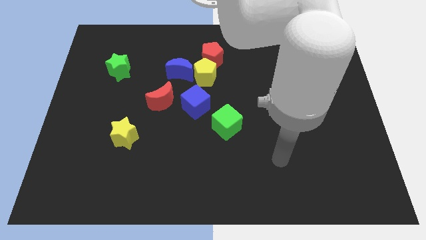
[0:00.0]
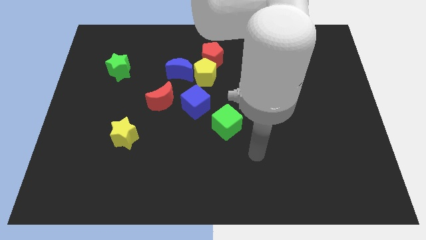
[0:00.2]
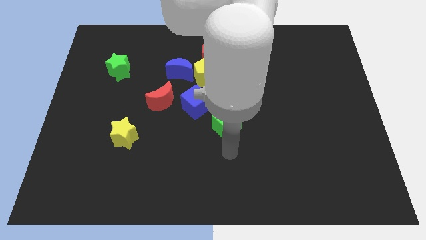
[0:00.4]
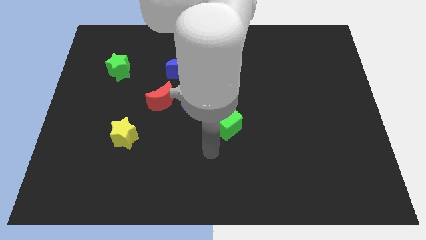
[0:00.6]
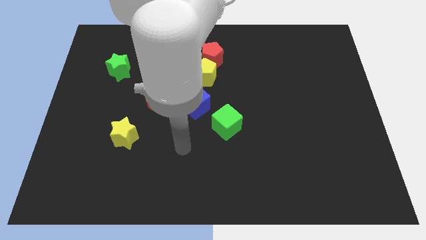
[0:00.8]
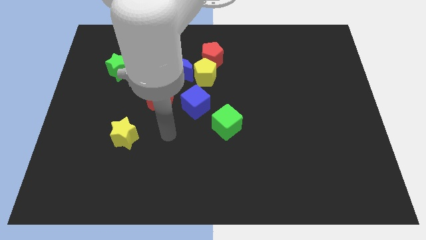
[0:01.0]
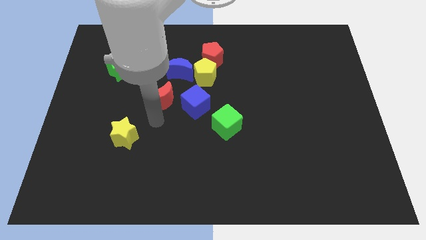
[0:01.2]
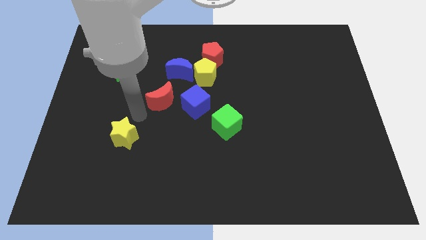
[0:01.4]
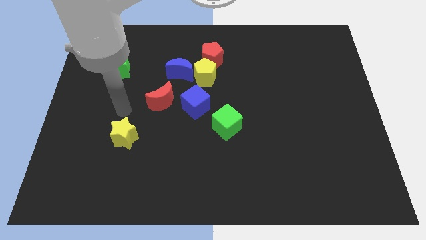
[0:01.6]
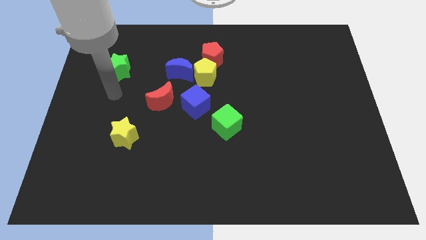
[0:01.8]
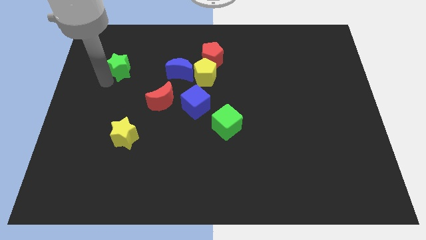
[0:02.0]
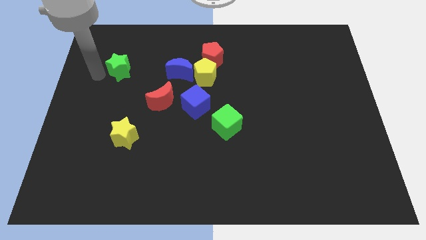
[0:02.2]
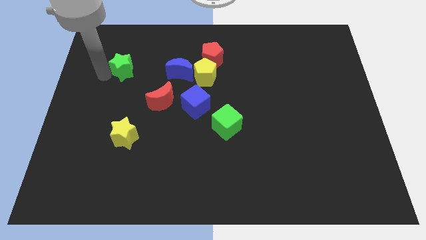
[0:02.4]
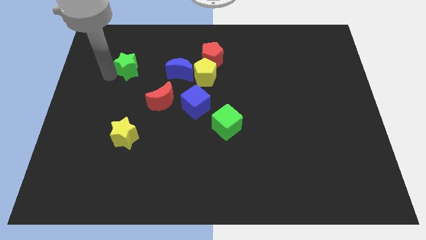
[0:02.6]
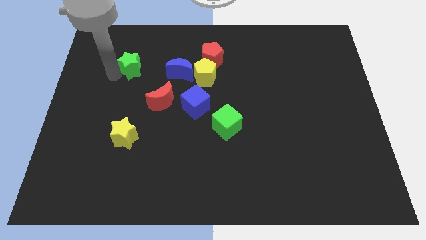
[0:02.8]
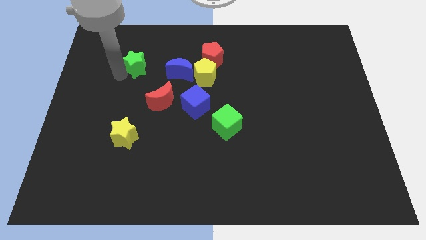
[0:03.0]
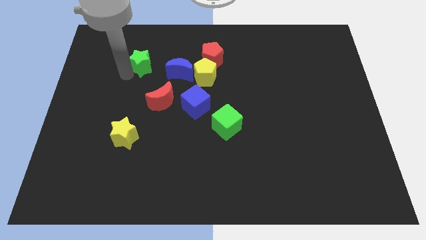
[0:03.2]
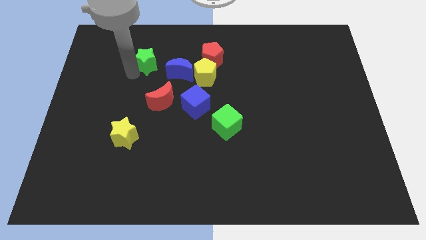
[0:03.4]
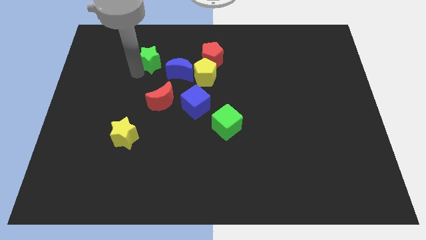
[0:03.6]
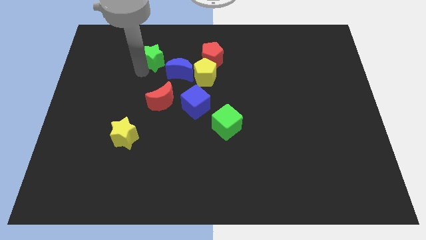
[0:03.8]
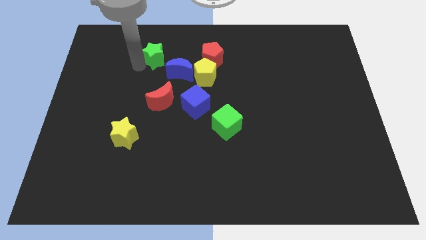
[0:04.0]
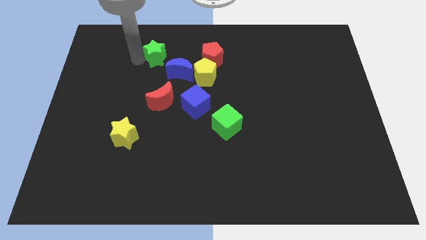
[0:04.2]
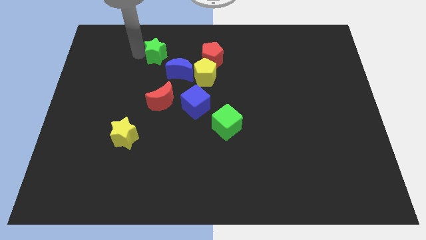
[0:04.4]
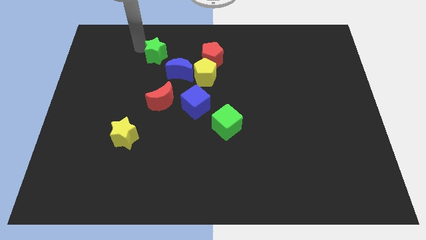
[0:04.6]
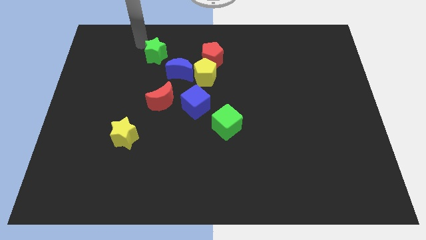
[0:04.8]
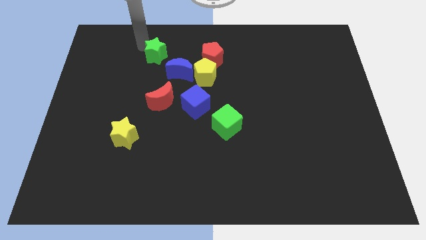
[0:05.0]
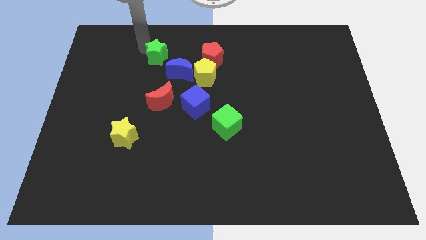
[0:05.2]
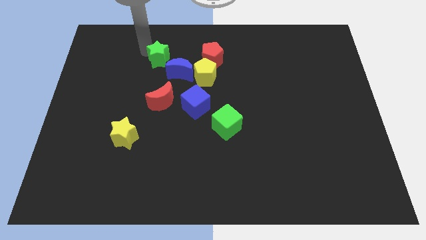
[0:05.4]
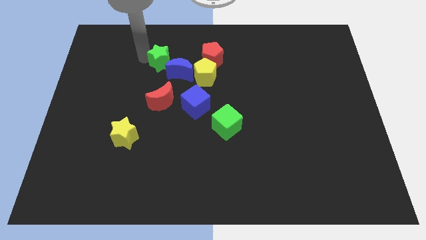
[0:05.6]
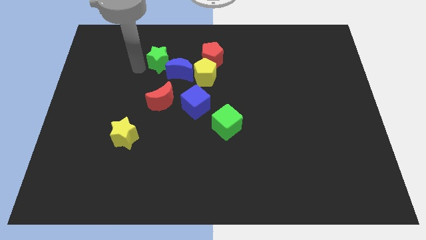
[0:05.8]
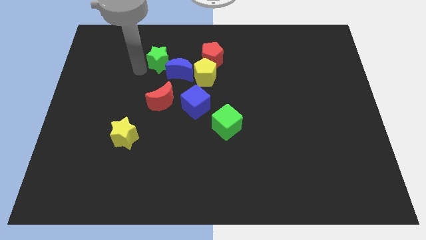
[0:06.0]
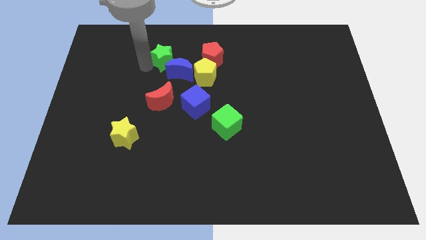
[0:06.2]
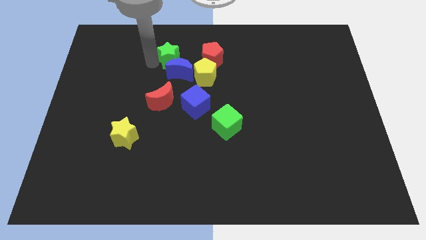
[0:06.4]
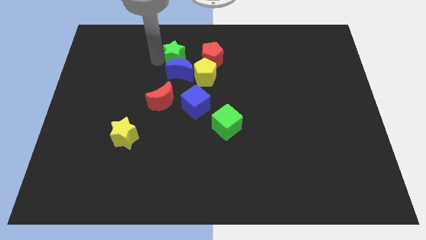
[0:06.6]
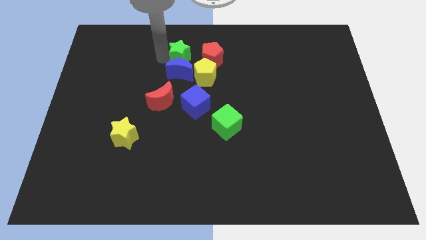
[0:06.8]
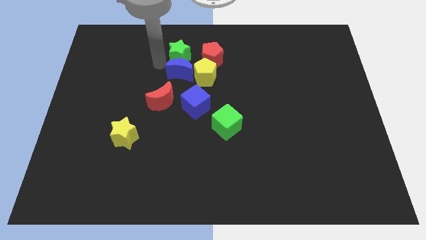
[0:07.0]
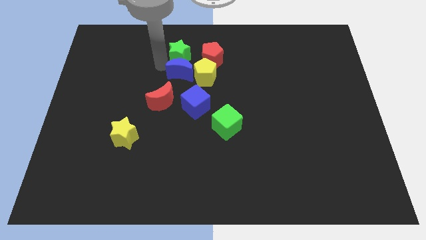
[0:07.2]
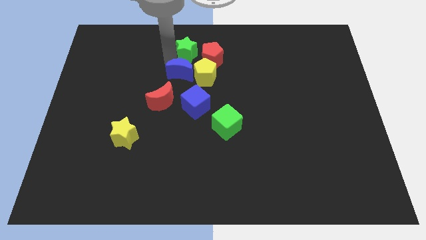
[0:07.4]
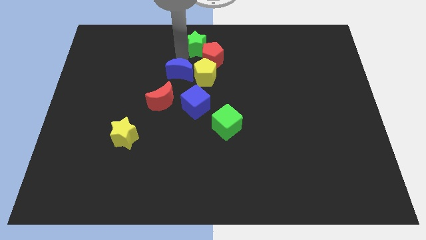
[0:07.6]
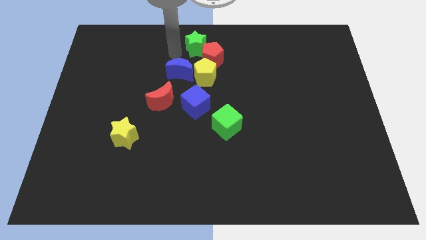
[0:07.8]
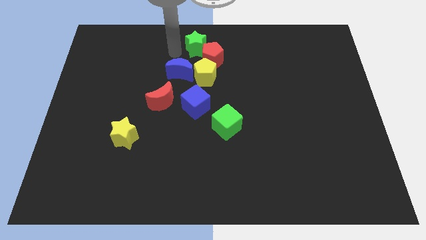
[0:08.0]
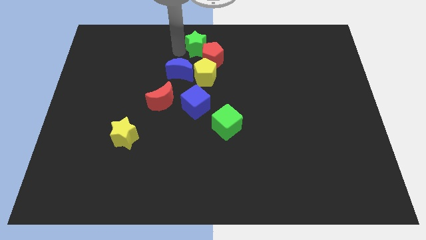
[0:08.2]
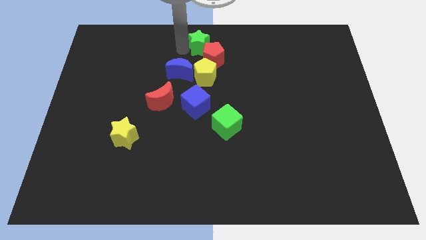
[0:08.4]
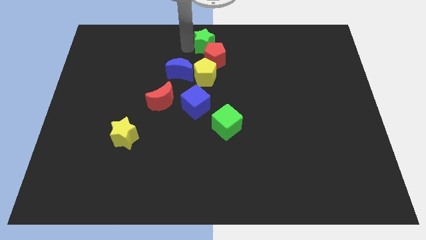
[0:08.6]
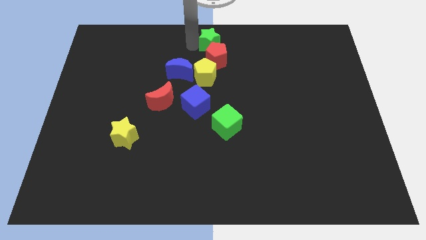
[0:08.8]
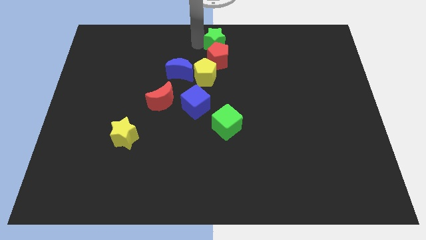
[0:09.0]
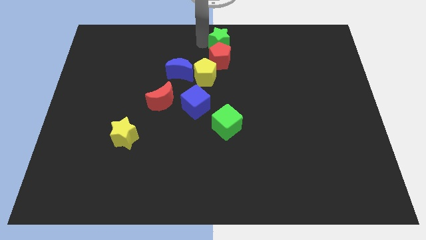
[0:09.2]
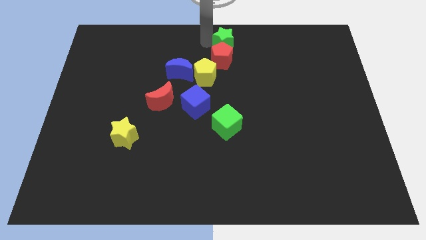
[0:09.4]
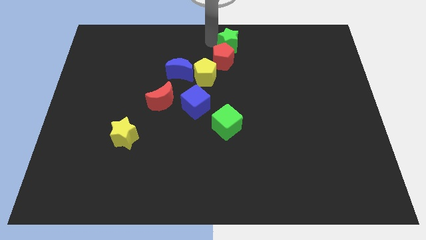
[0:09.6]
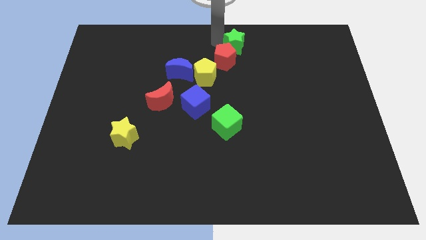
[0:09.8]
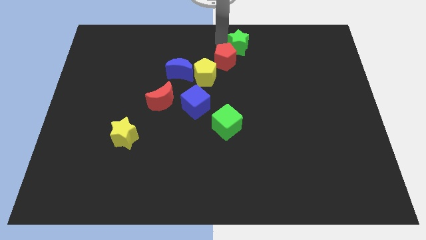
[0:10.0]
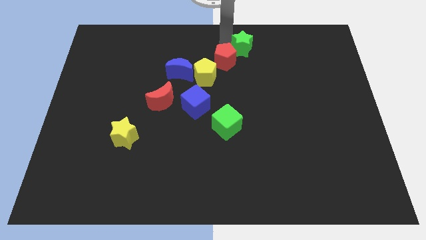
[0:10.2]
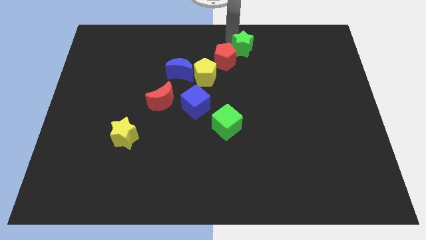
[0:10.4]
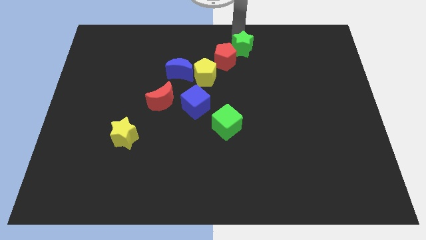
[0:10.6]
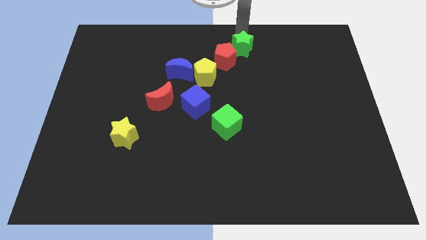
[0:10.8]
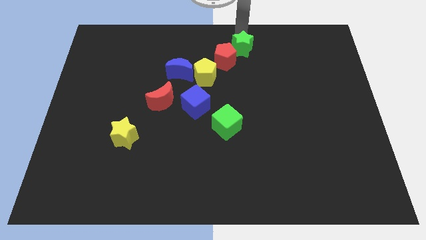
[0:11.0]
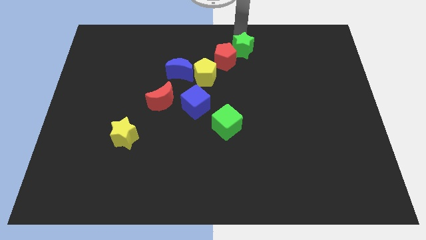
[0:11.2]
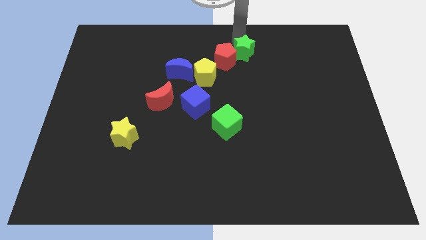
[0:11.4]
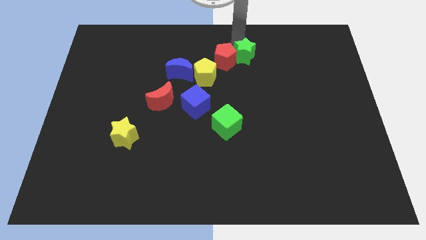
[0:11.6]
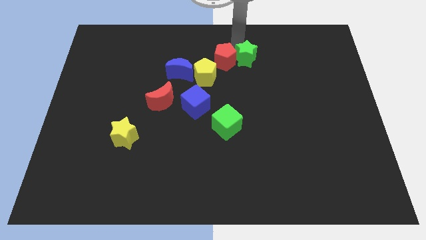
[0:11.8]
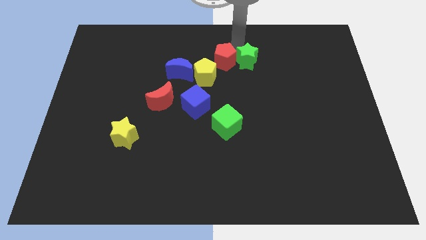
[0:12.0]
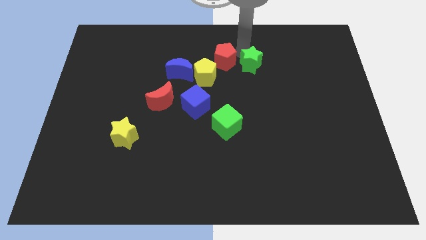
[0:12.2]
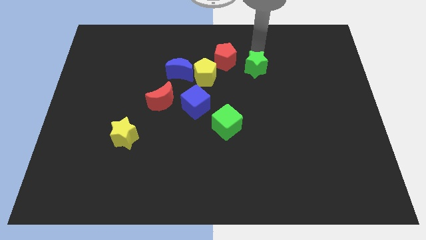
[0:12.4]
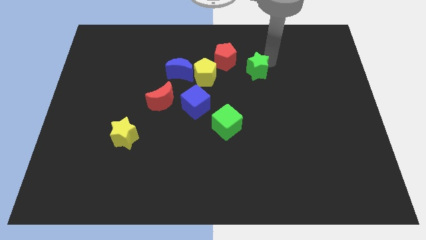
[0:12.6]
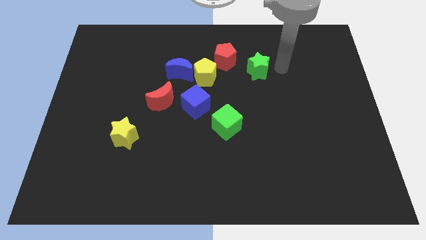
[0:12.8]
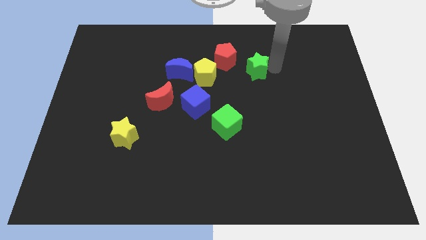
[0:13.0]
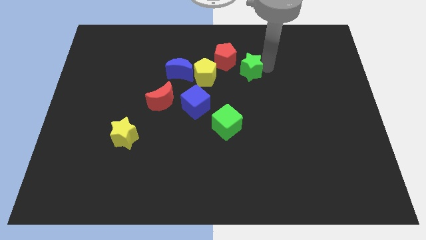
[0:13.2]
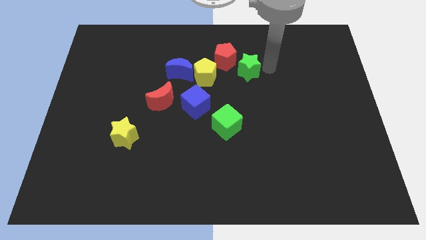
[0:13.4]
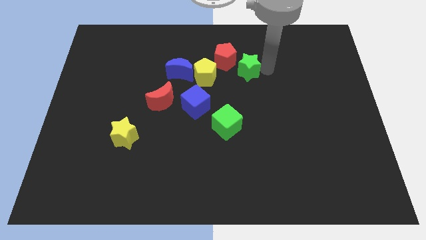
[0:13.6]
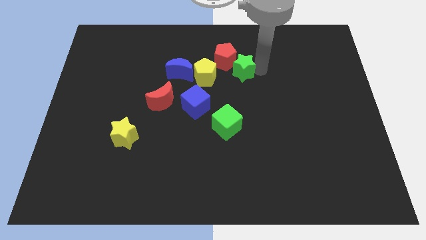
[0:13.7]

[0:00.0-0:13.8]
slide the green star to the right side of the blue moon

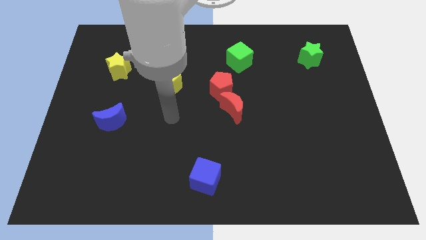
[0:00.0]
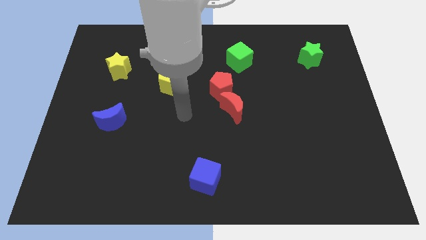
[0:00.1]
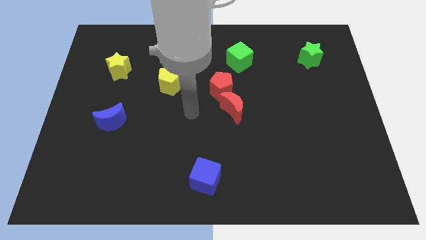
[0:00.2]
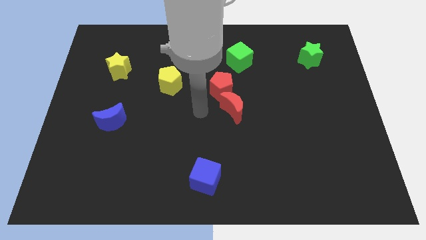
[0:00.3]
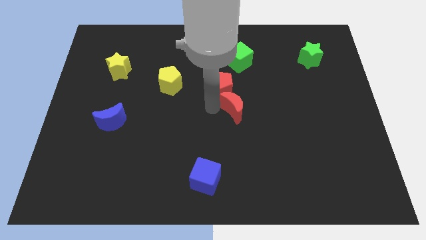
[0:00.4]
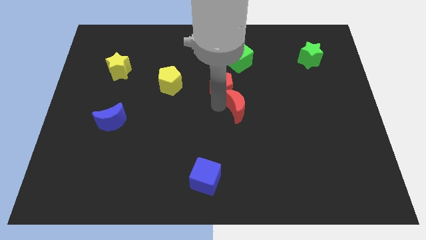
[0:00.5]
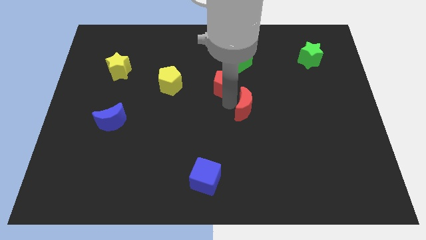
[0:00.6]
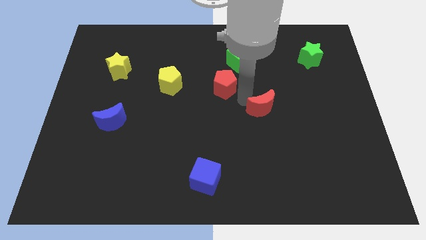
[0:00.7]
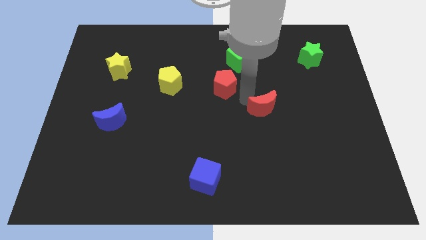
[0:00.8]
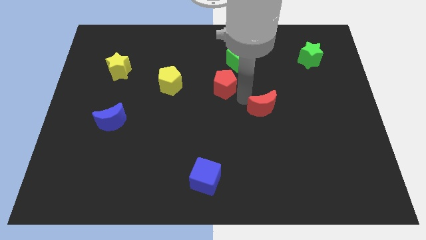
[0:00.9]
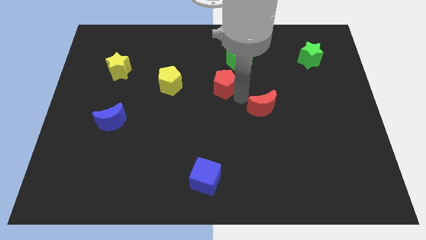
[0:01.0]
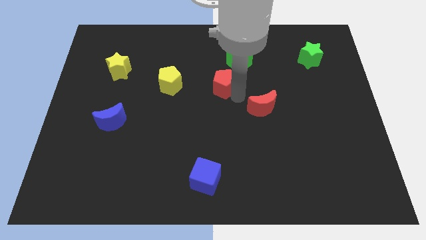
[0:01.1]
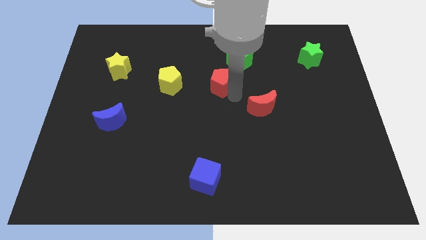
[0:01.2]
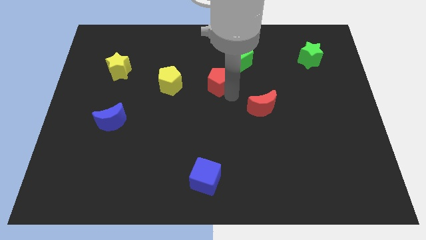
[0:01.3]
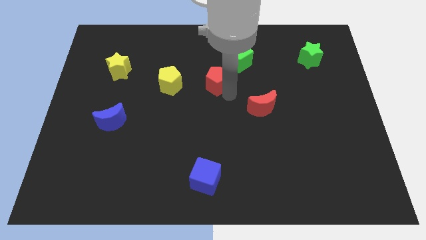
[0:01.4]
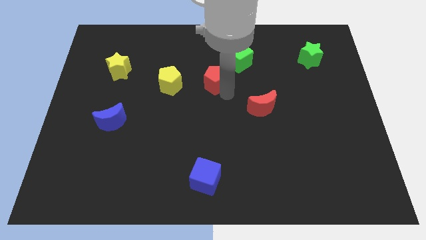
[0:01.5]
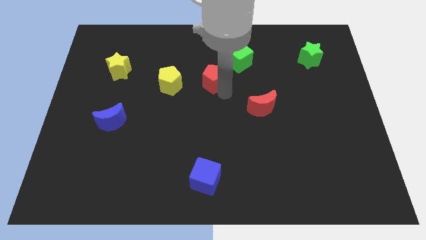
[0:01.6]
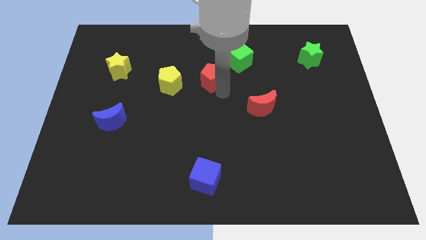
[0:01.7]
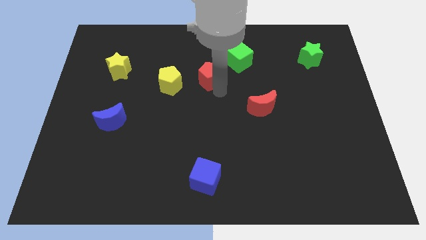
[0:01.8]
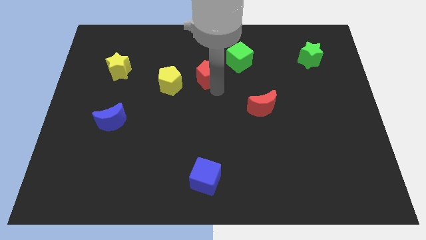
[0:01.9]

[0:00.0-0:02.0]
slide the red pentagon diagonally up and to the right of the yellow pentagon
